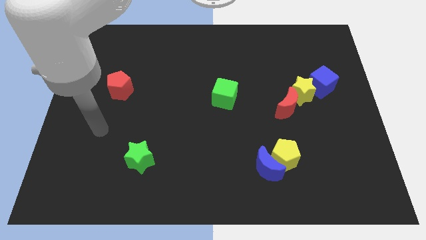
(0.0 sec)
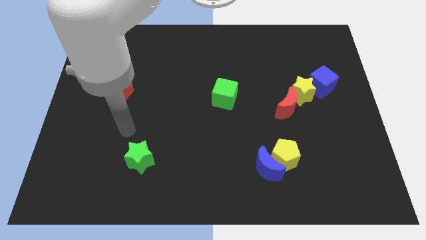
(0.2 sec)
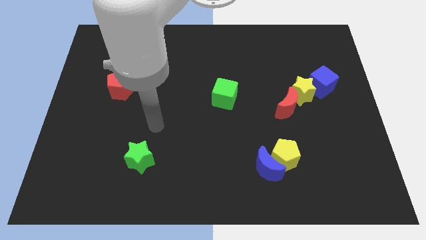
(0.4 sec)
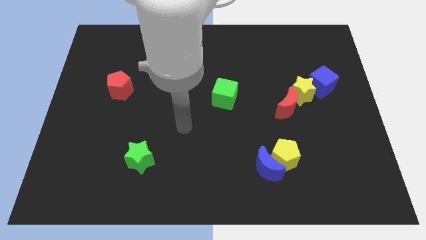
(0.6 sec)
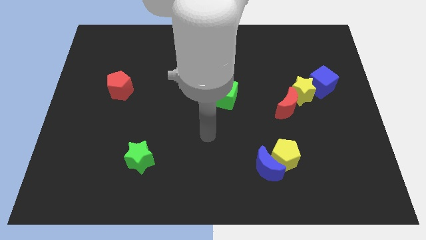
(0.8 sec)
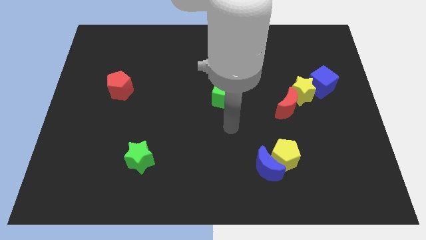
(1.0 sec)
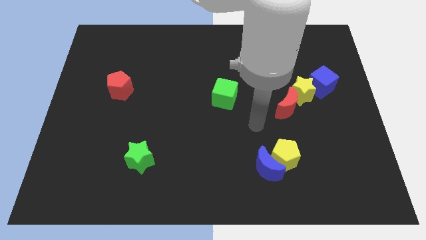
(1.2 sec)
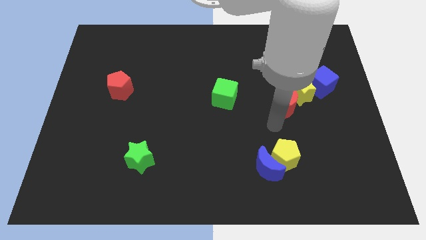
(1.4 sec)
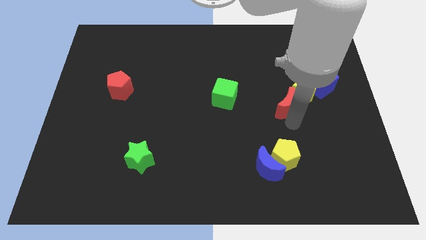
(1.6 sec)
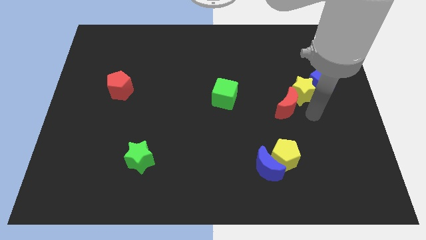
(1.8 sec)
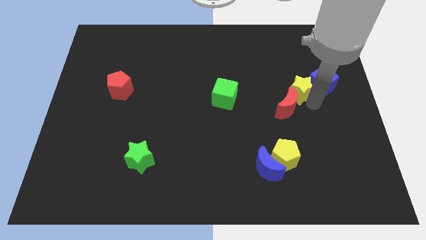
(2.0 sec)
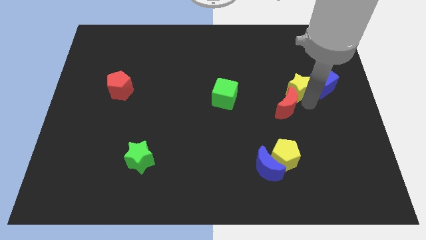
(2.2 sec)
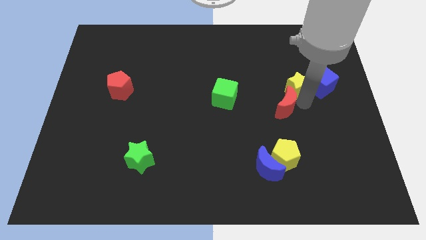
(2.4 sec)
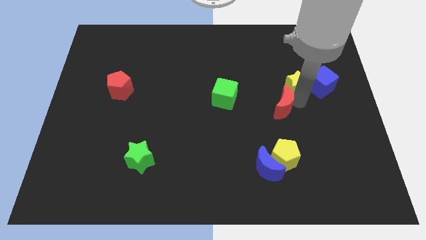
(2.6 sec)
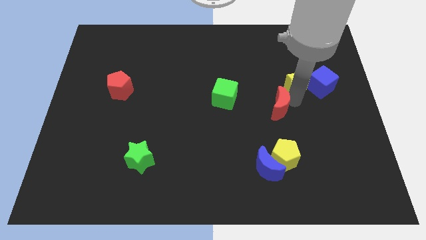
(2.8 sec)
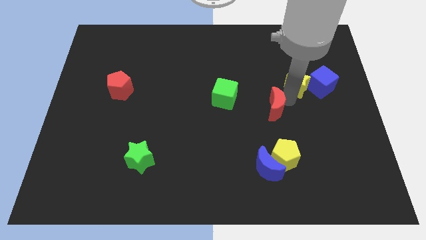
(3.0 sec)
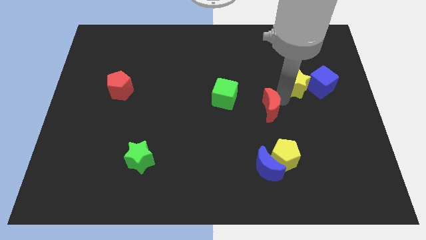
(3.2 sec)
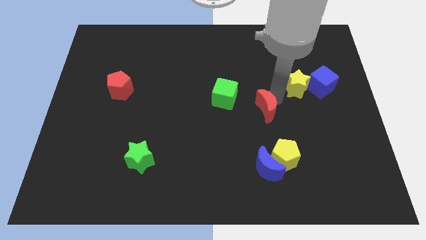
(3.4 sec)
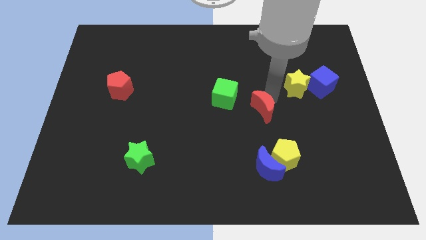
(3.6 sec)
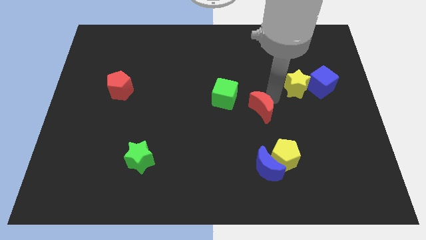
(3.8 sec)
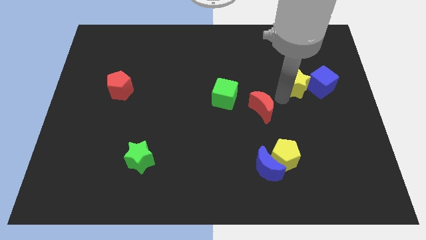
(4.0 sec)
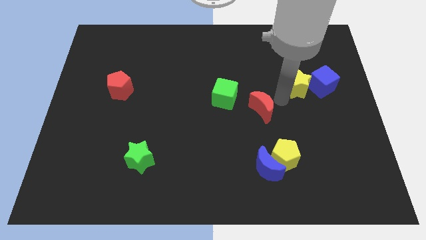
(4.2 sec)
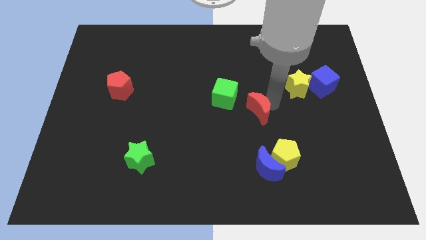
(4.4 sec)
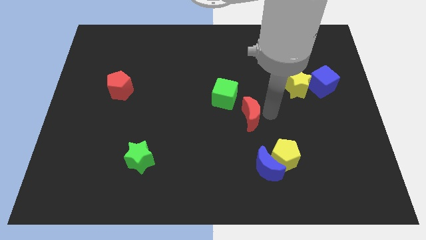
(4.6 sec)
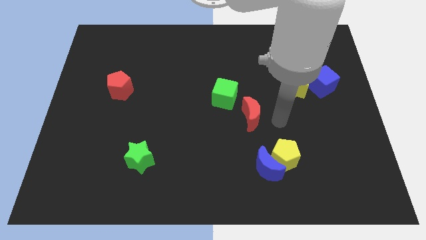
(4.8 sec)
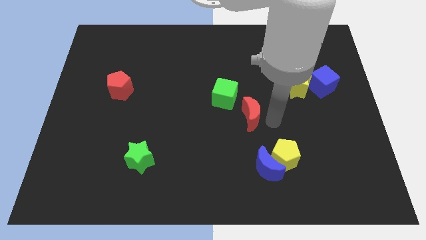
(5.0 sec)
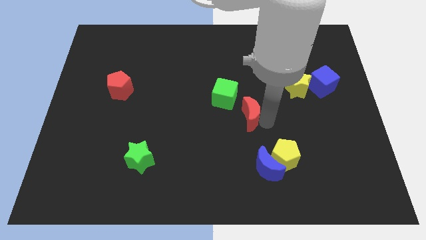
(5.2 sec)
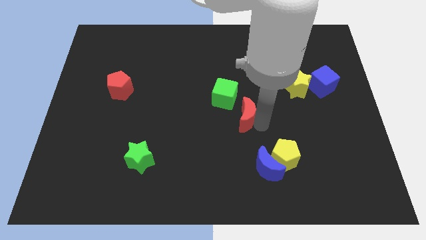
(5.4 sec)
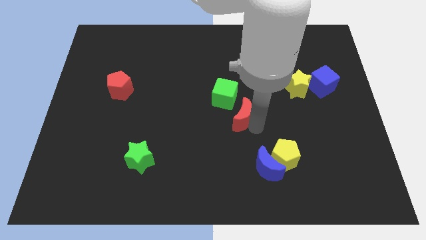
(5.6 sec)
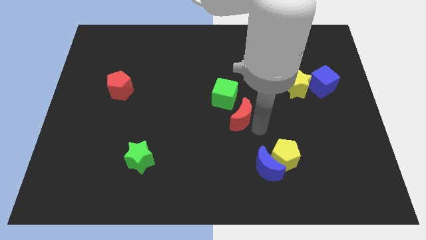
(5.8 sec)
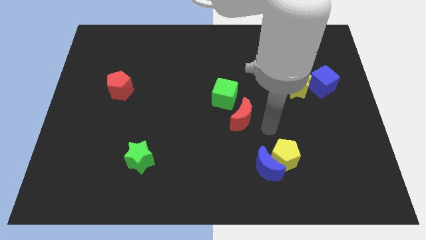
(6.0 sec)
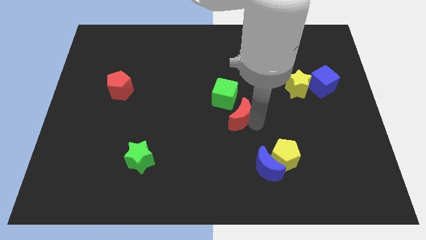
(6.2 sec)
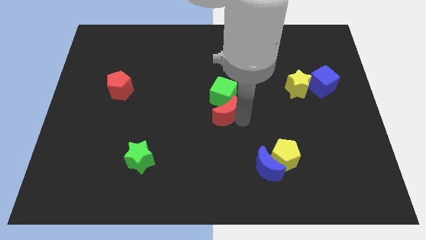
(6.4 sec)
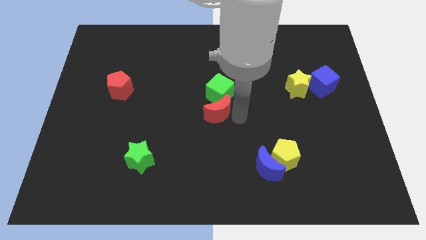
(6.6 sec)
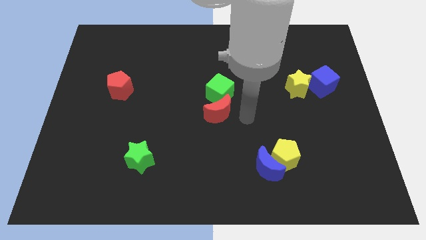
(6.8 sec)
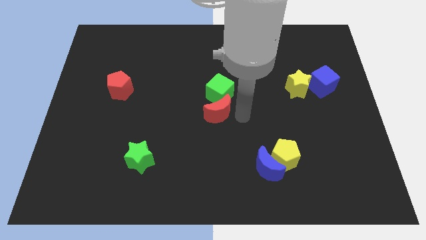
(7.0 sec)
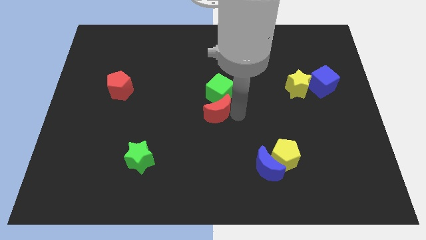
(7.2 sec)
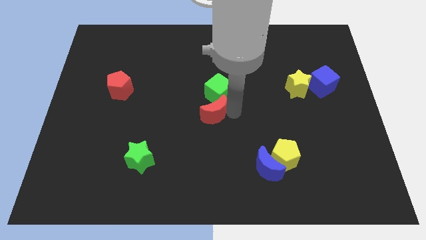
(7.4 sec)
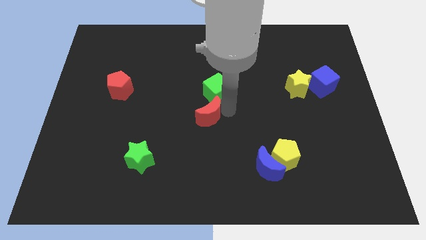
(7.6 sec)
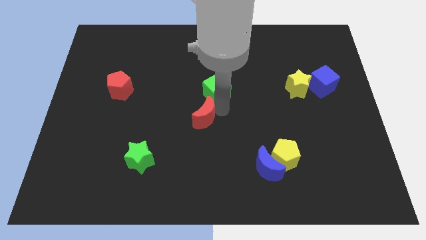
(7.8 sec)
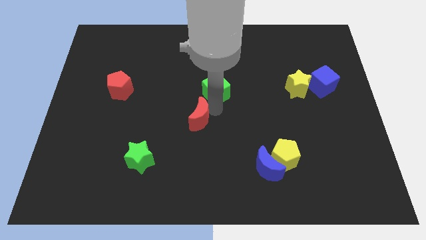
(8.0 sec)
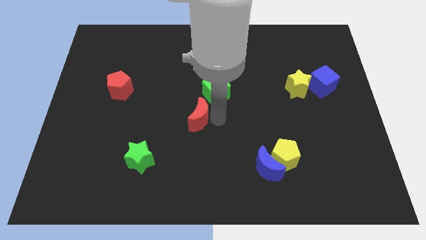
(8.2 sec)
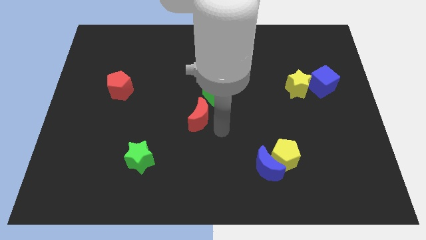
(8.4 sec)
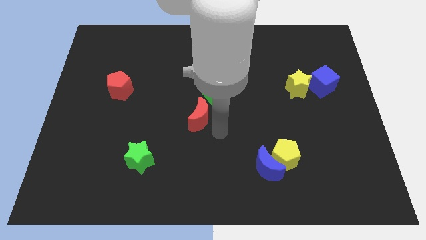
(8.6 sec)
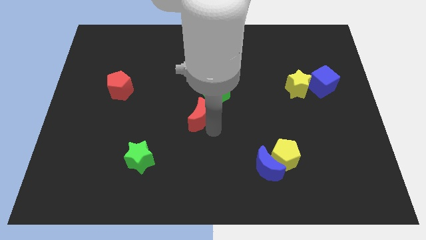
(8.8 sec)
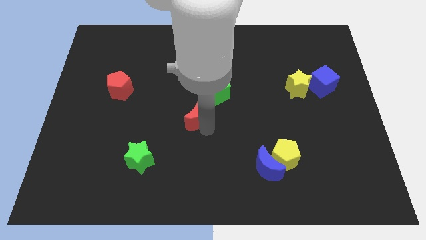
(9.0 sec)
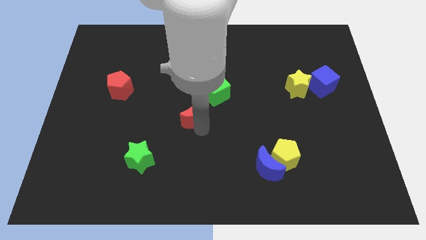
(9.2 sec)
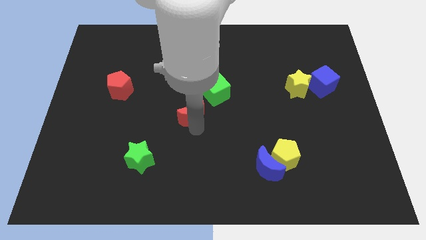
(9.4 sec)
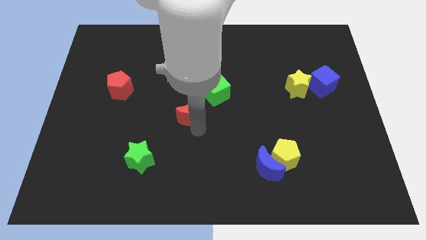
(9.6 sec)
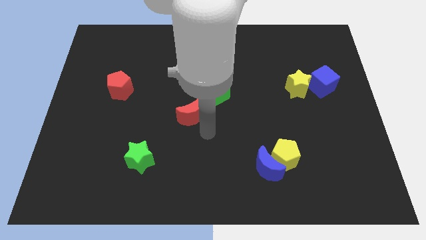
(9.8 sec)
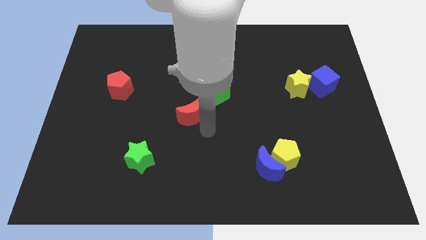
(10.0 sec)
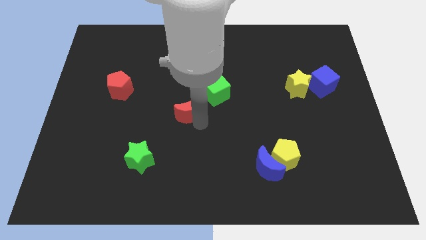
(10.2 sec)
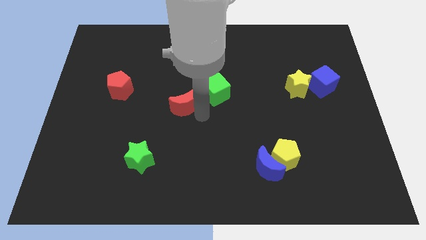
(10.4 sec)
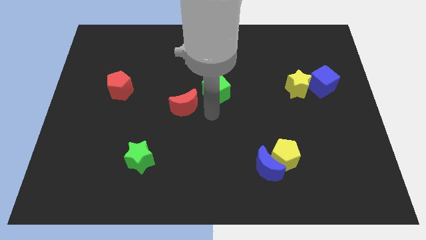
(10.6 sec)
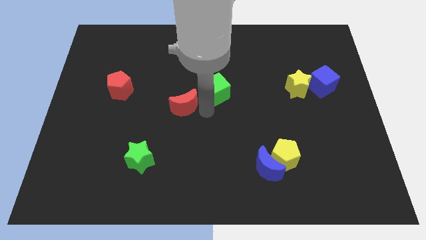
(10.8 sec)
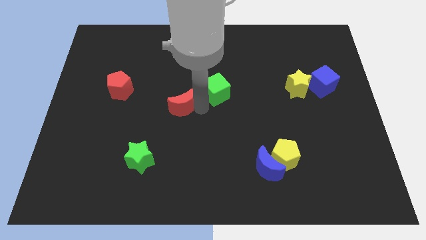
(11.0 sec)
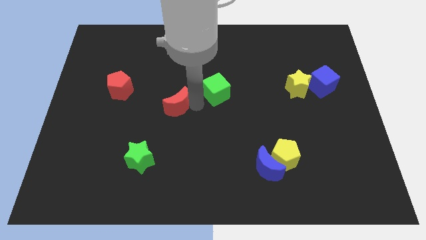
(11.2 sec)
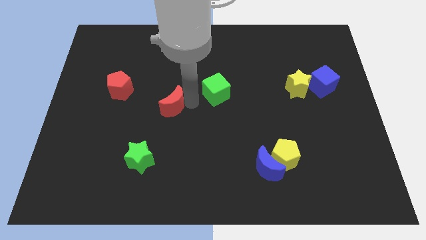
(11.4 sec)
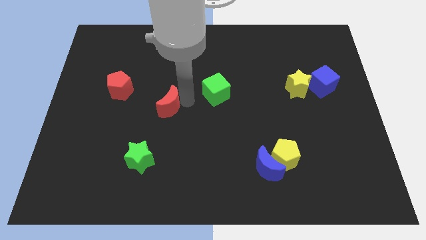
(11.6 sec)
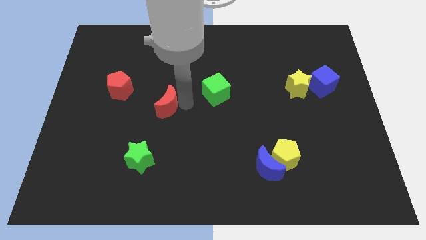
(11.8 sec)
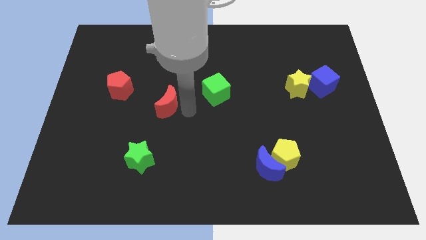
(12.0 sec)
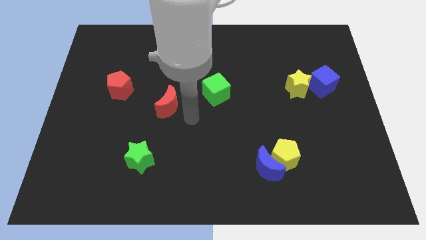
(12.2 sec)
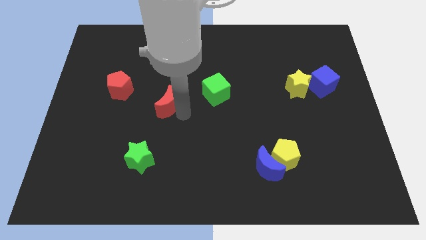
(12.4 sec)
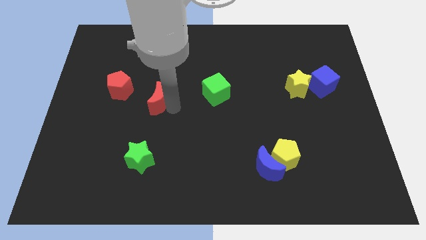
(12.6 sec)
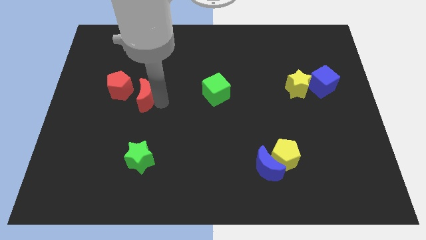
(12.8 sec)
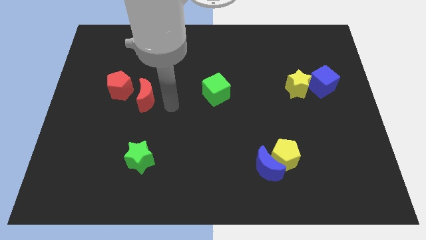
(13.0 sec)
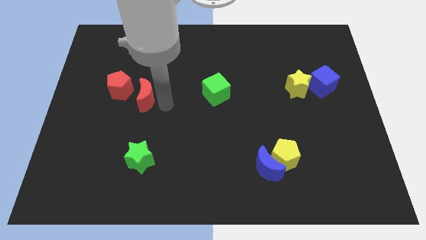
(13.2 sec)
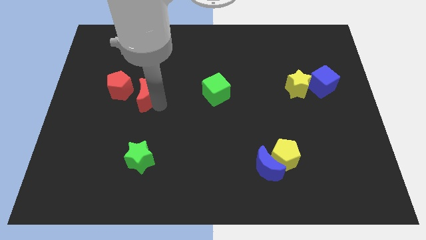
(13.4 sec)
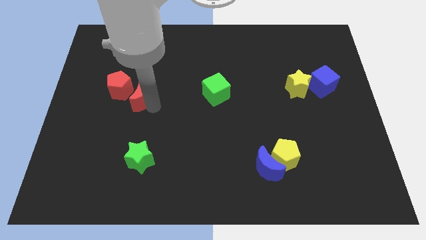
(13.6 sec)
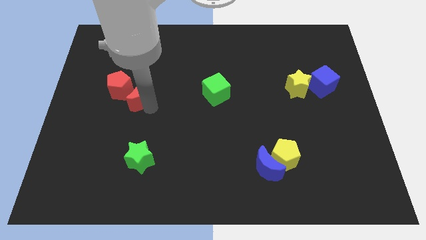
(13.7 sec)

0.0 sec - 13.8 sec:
slide the red moon towards the red pentagon

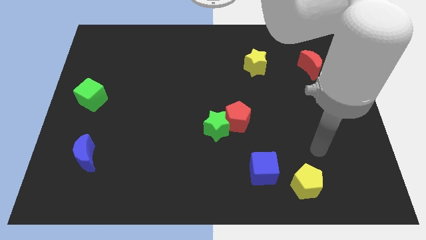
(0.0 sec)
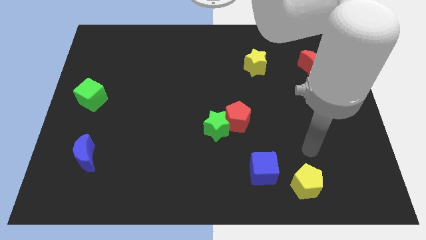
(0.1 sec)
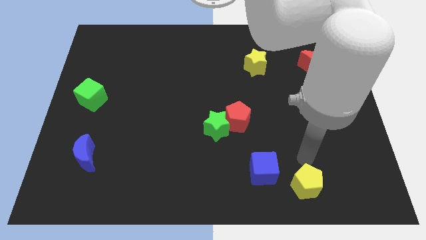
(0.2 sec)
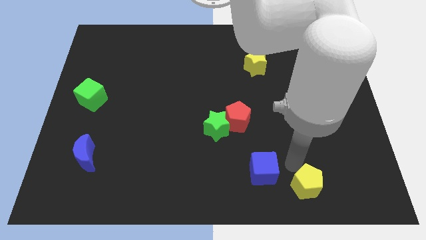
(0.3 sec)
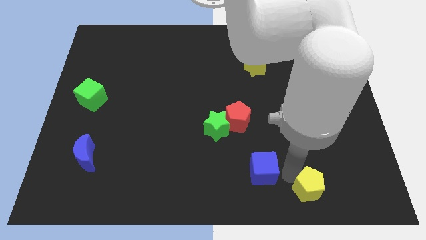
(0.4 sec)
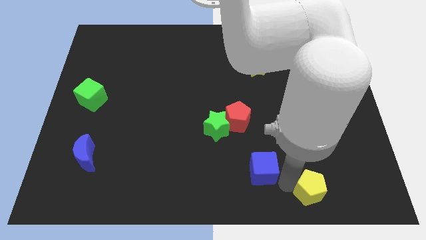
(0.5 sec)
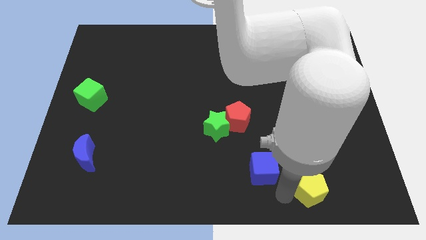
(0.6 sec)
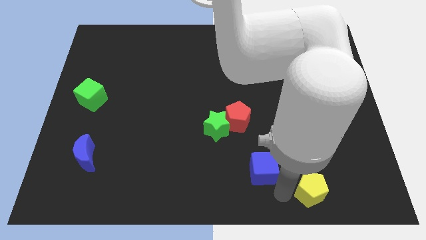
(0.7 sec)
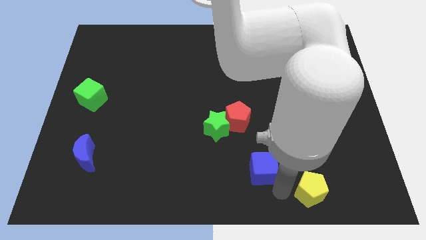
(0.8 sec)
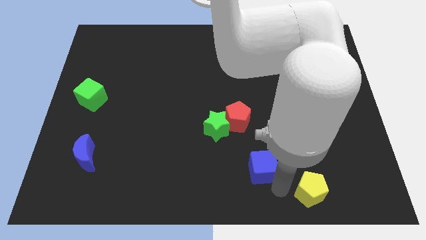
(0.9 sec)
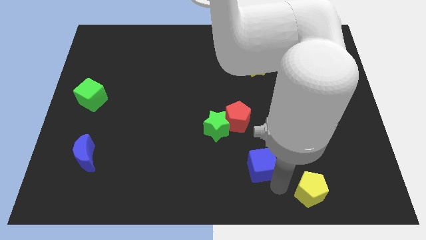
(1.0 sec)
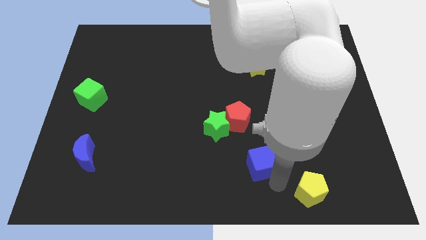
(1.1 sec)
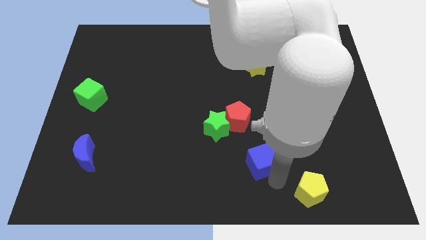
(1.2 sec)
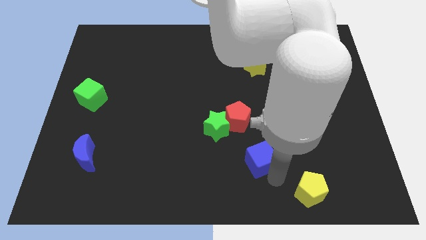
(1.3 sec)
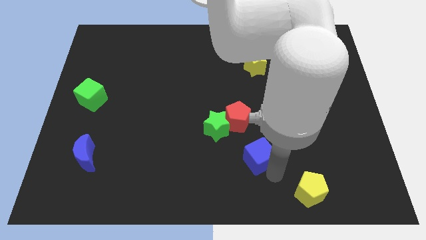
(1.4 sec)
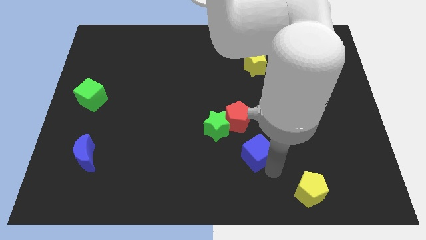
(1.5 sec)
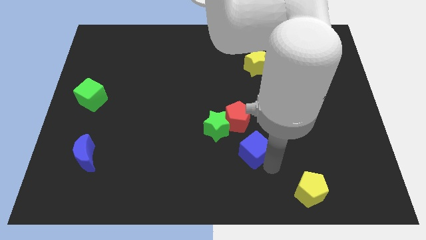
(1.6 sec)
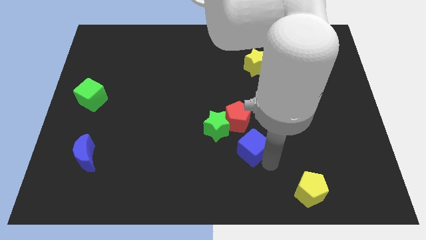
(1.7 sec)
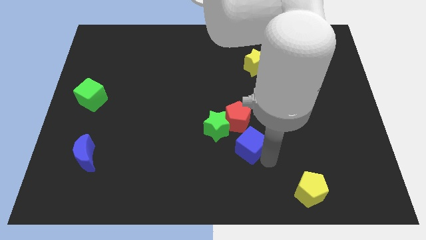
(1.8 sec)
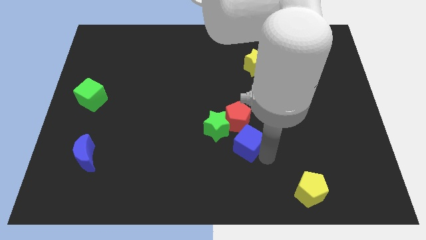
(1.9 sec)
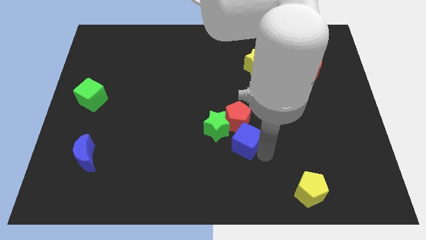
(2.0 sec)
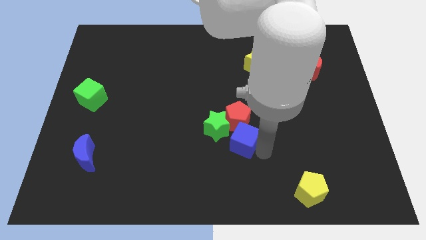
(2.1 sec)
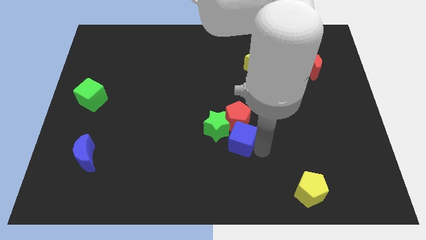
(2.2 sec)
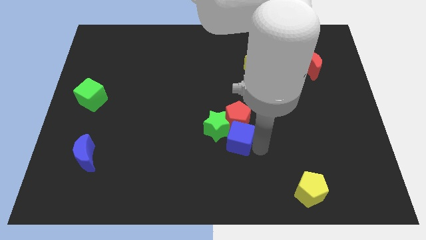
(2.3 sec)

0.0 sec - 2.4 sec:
slide the blue cube towards the green star
